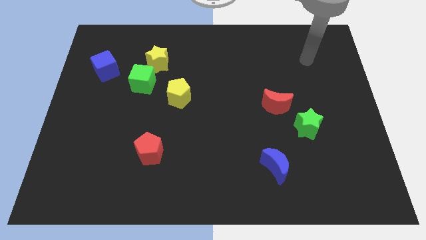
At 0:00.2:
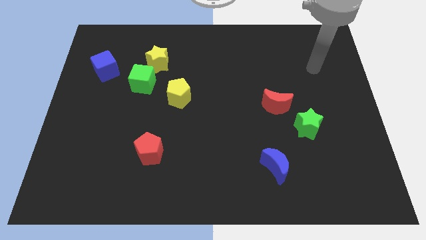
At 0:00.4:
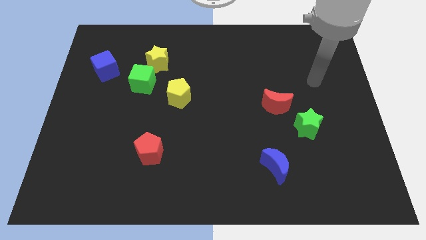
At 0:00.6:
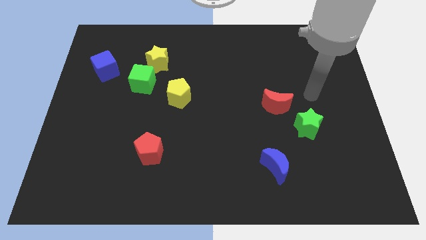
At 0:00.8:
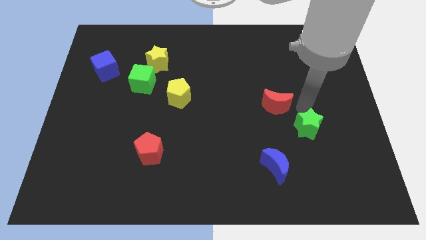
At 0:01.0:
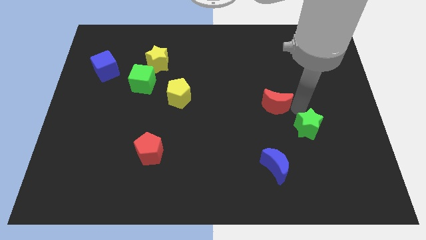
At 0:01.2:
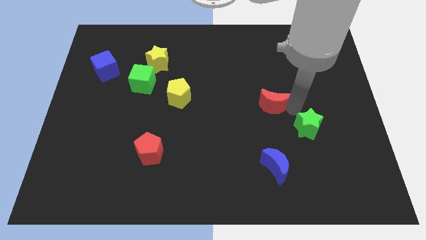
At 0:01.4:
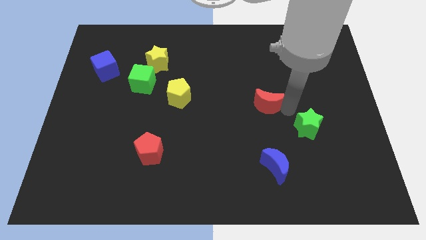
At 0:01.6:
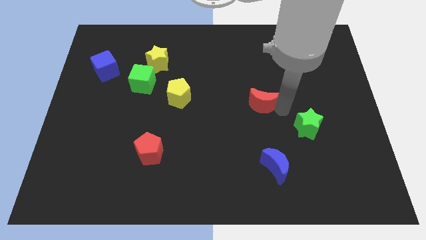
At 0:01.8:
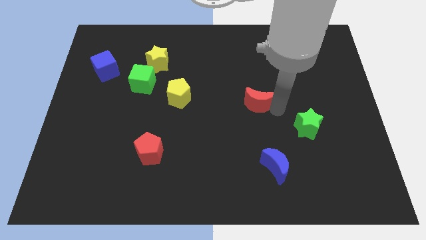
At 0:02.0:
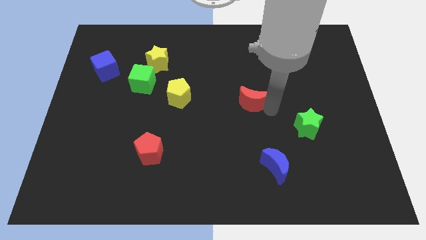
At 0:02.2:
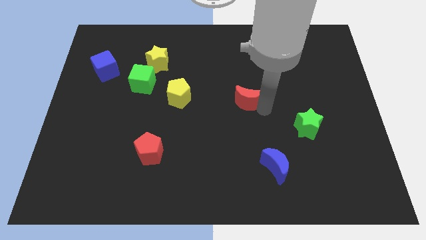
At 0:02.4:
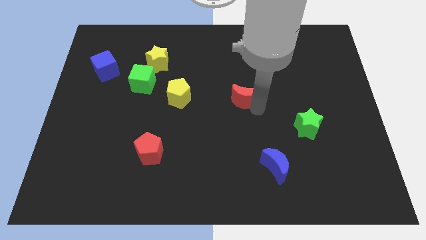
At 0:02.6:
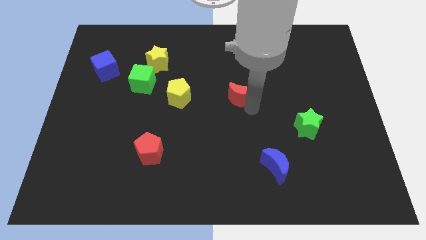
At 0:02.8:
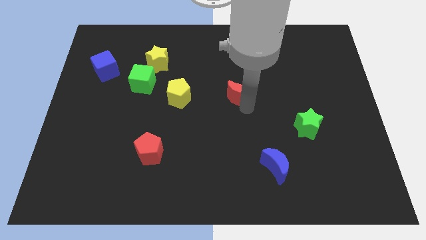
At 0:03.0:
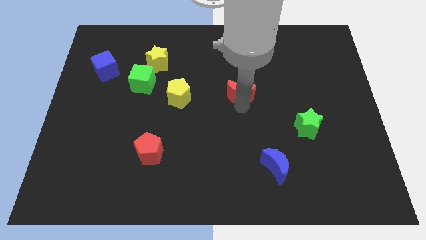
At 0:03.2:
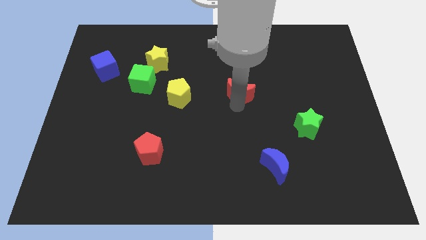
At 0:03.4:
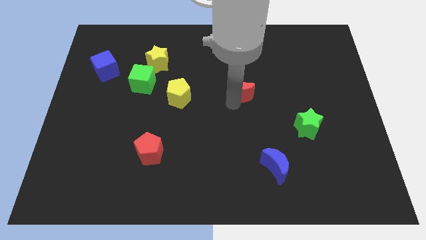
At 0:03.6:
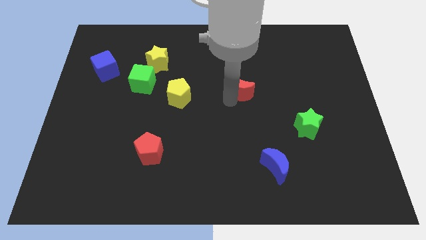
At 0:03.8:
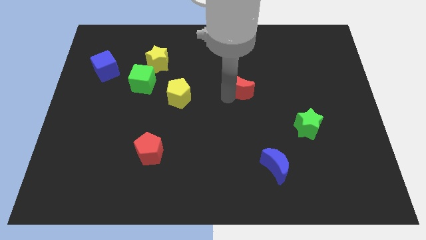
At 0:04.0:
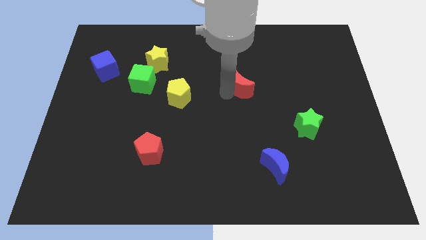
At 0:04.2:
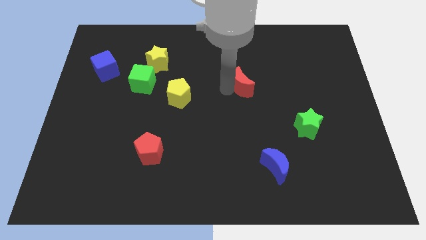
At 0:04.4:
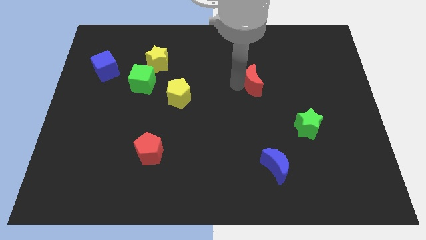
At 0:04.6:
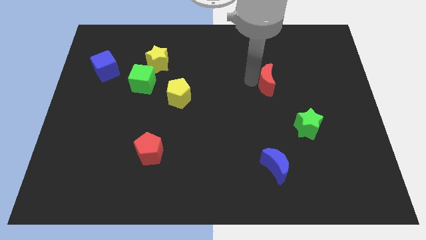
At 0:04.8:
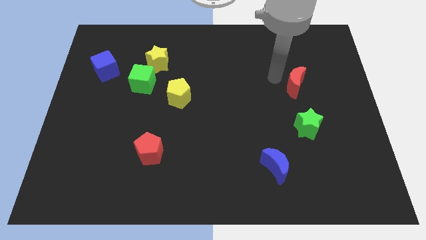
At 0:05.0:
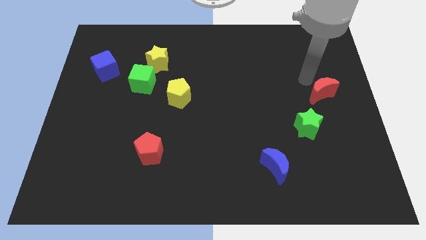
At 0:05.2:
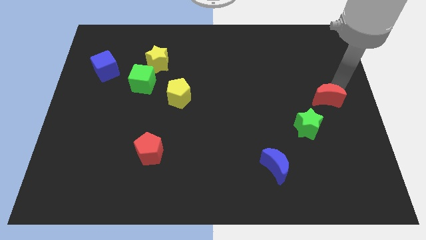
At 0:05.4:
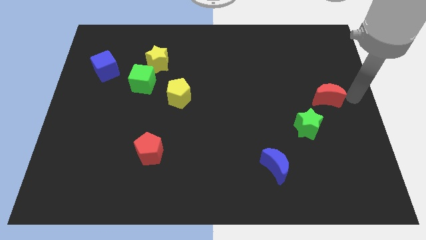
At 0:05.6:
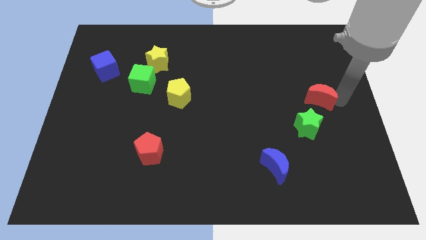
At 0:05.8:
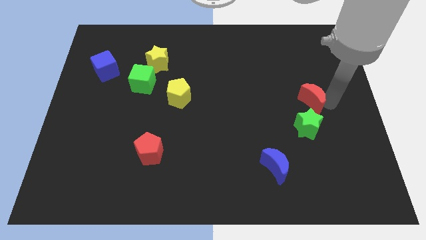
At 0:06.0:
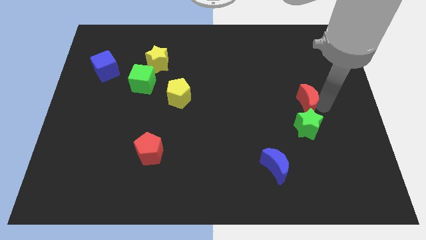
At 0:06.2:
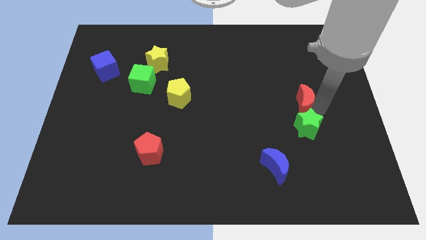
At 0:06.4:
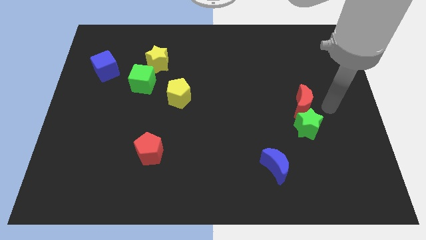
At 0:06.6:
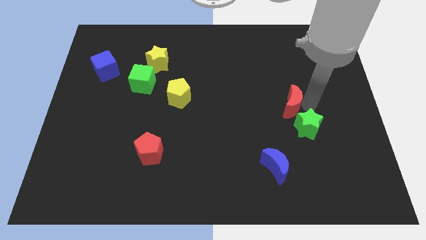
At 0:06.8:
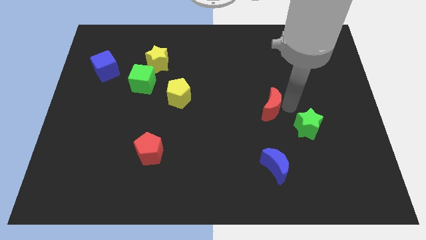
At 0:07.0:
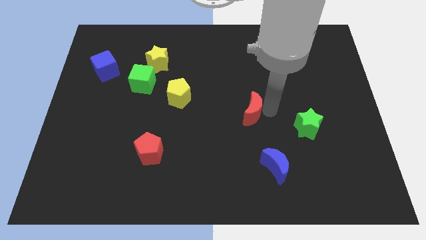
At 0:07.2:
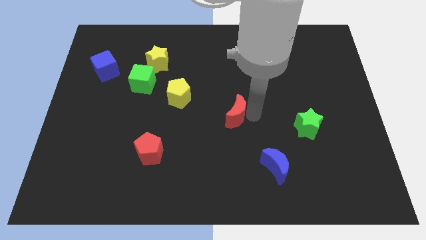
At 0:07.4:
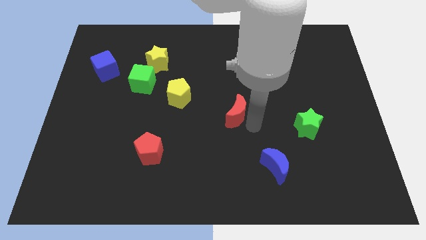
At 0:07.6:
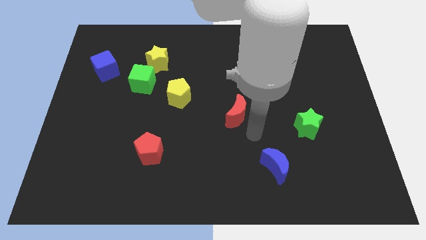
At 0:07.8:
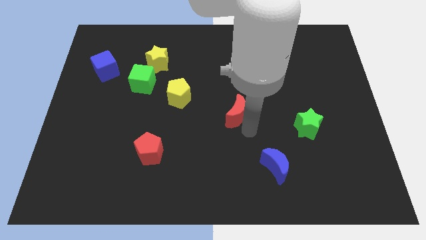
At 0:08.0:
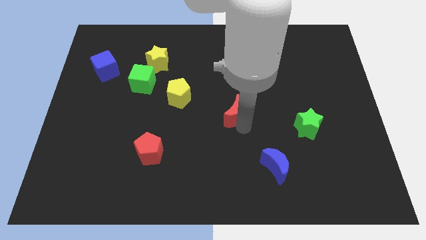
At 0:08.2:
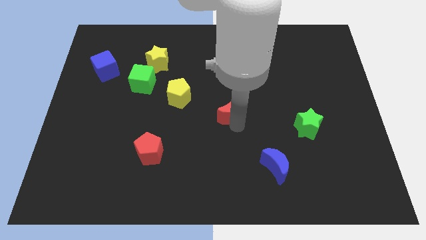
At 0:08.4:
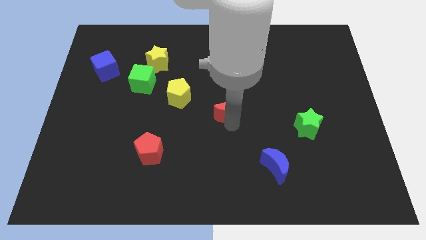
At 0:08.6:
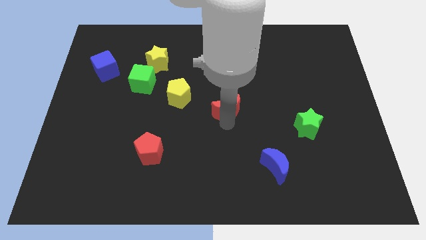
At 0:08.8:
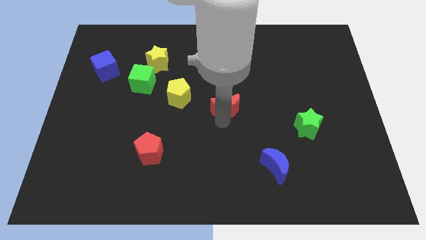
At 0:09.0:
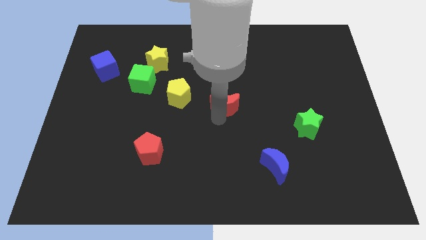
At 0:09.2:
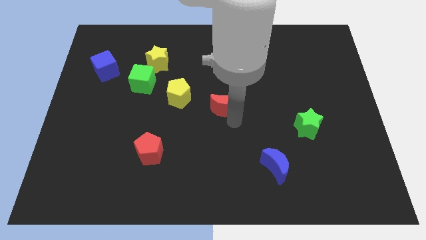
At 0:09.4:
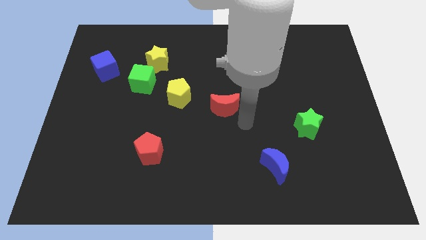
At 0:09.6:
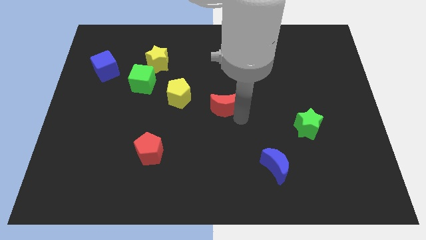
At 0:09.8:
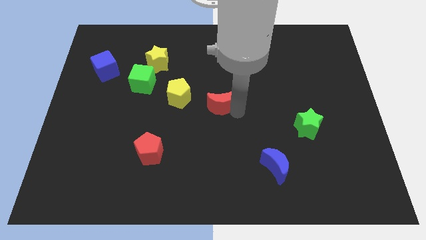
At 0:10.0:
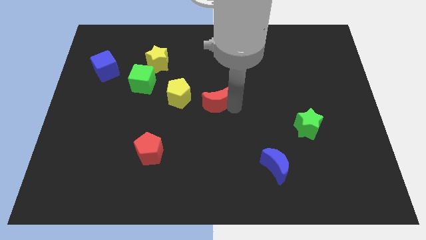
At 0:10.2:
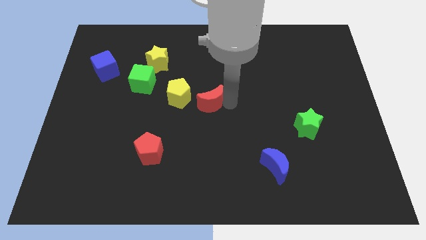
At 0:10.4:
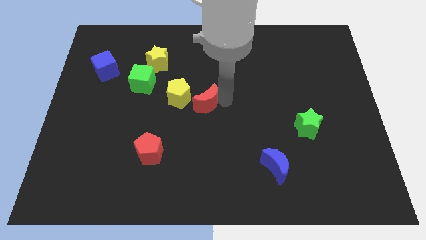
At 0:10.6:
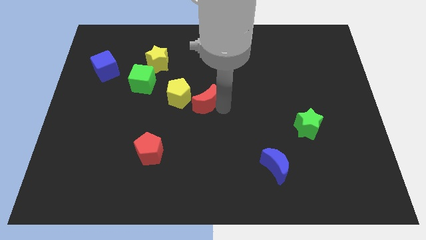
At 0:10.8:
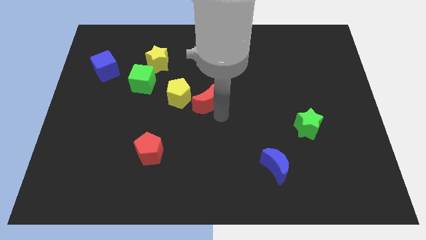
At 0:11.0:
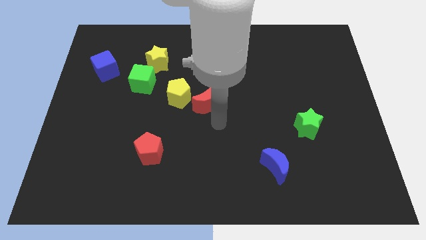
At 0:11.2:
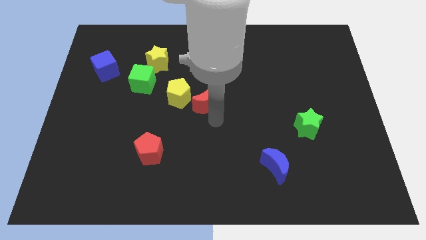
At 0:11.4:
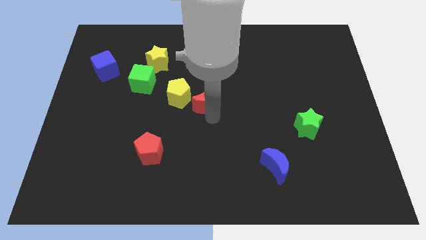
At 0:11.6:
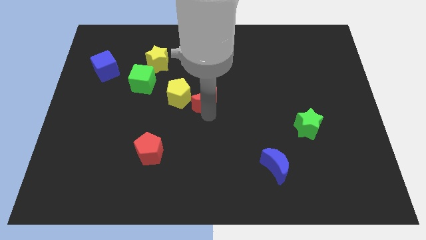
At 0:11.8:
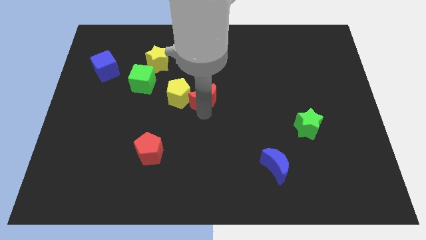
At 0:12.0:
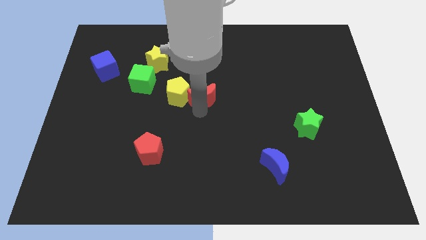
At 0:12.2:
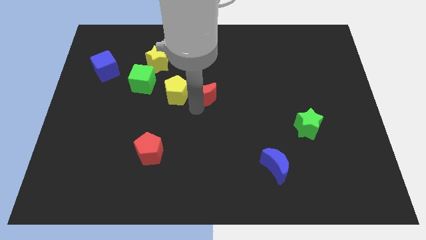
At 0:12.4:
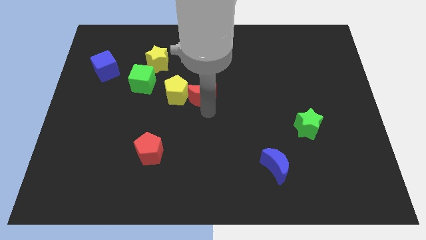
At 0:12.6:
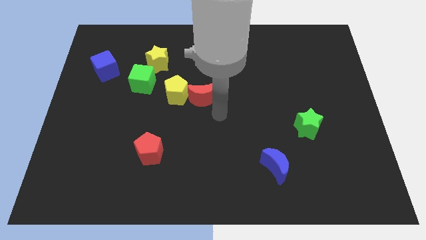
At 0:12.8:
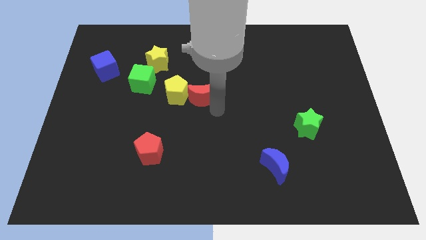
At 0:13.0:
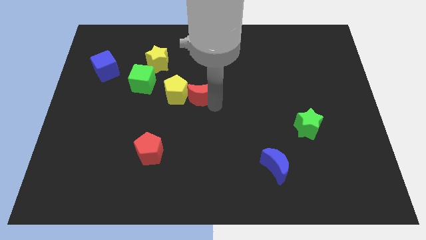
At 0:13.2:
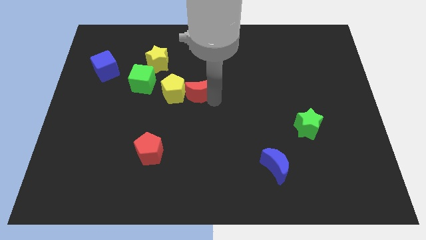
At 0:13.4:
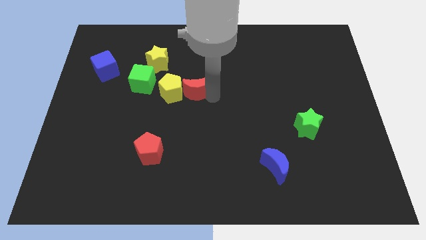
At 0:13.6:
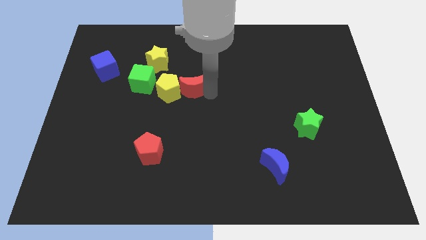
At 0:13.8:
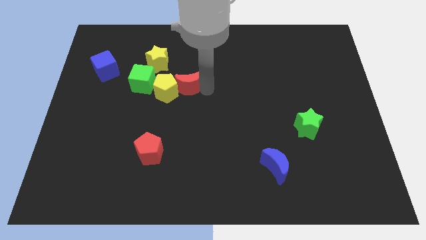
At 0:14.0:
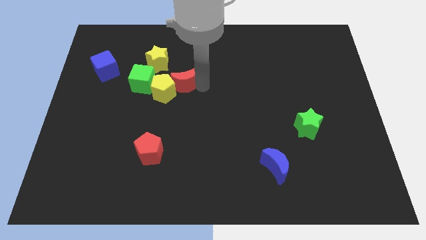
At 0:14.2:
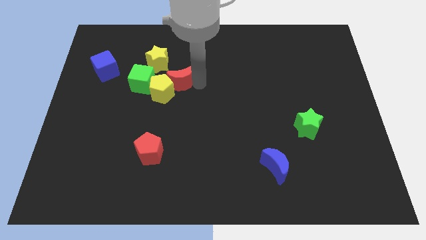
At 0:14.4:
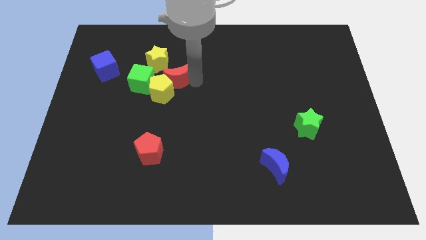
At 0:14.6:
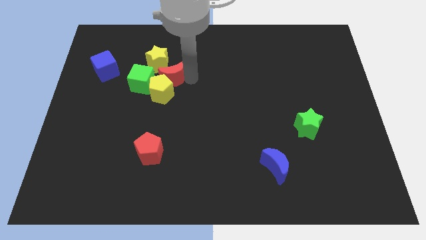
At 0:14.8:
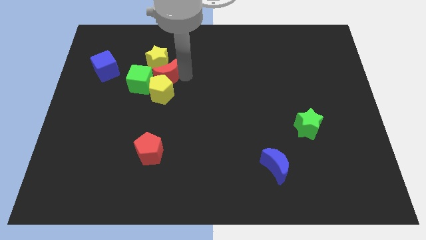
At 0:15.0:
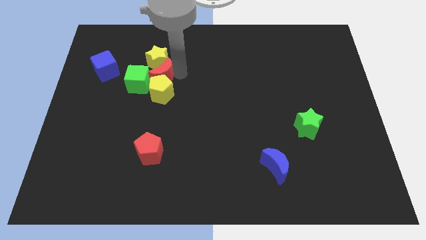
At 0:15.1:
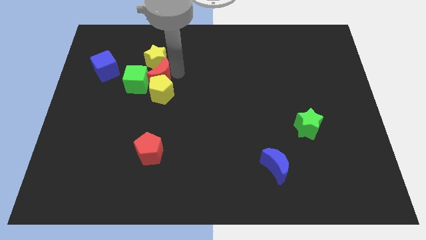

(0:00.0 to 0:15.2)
move the red moon to the green cube

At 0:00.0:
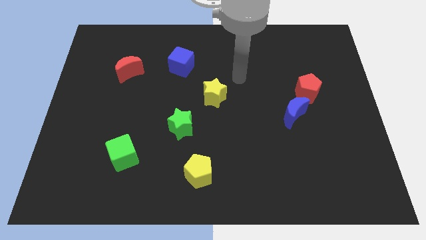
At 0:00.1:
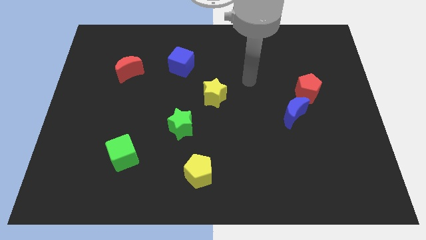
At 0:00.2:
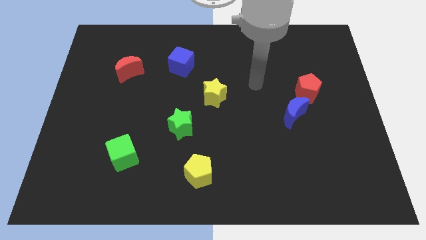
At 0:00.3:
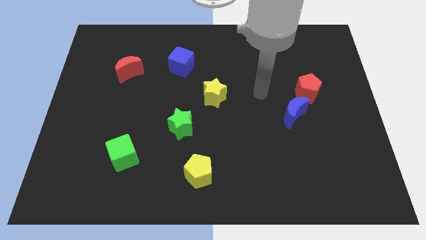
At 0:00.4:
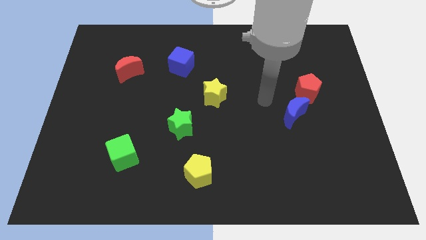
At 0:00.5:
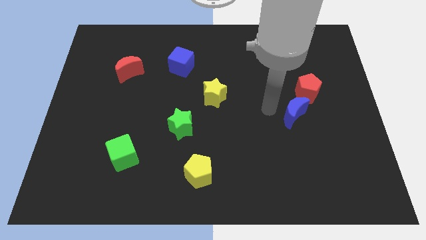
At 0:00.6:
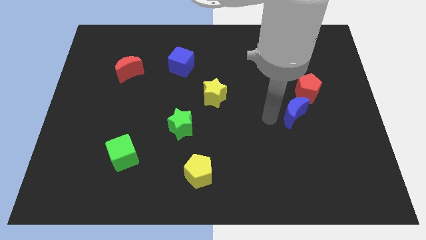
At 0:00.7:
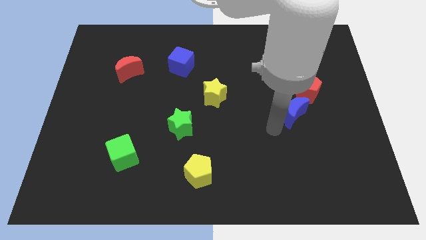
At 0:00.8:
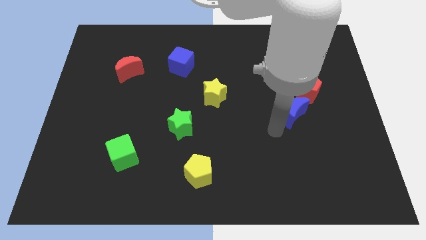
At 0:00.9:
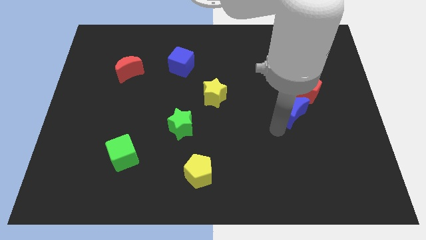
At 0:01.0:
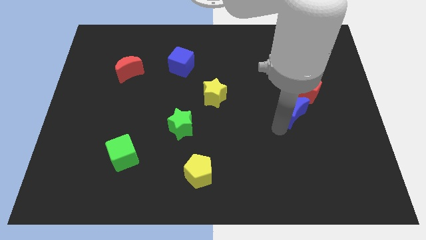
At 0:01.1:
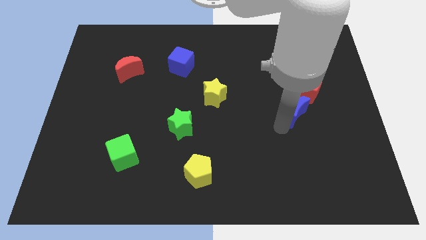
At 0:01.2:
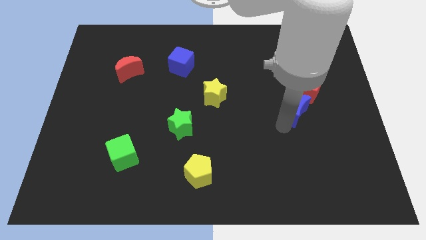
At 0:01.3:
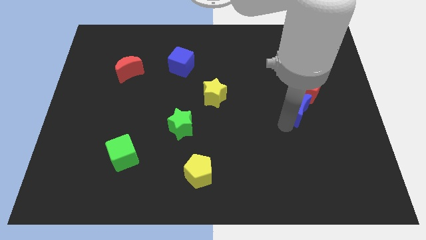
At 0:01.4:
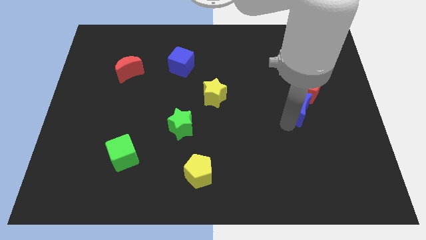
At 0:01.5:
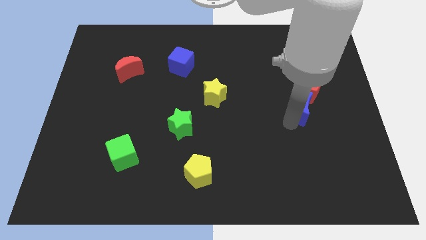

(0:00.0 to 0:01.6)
push the blue moon towards the red pentagon
